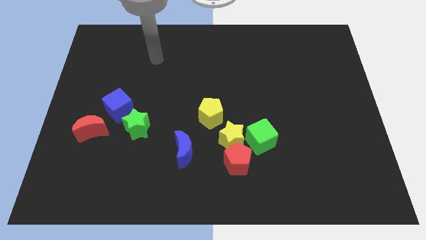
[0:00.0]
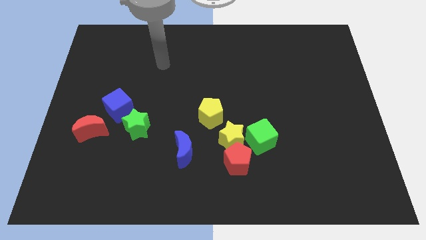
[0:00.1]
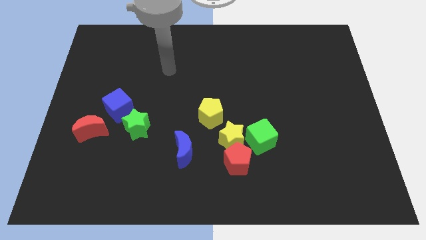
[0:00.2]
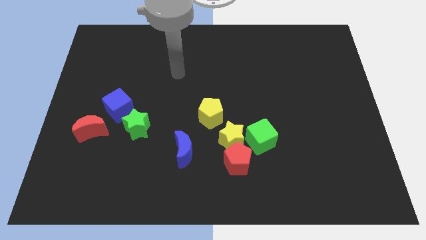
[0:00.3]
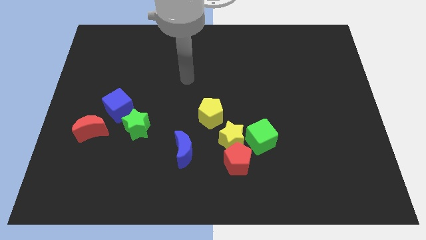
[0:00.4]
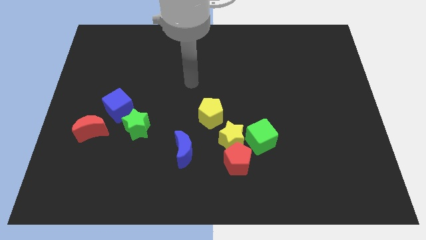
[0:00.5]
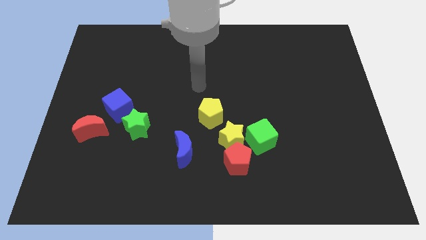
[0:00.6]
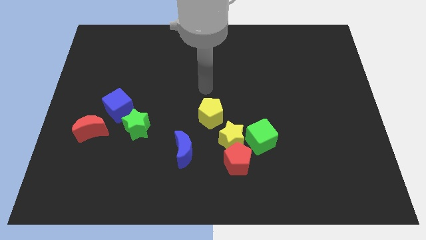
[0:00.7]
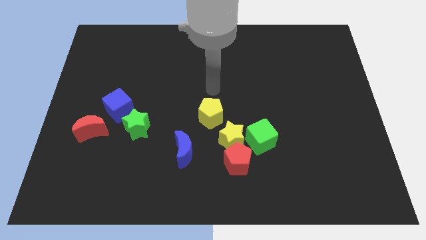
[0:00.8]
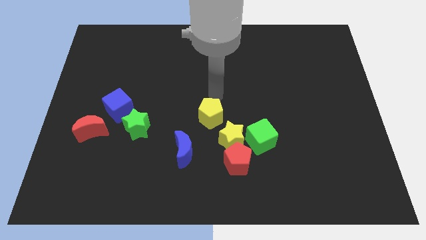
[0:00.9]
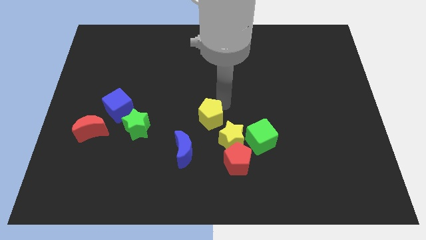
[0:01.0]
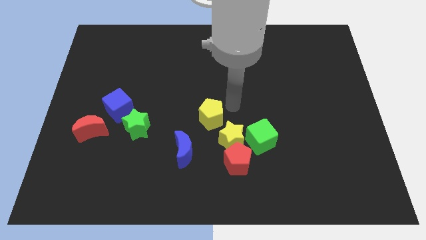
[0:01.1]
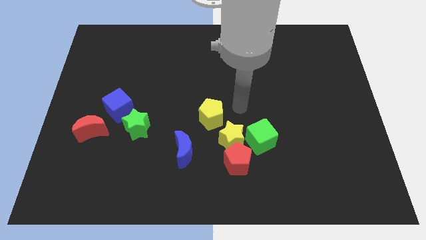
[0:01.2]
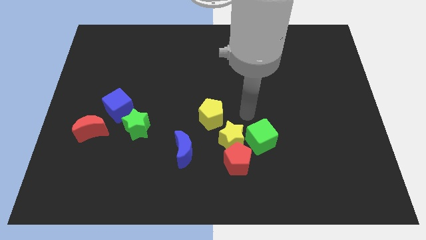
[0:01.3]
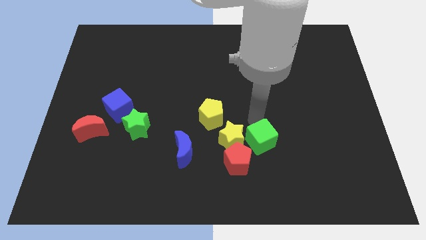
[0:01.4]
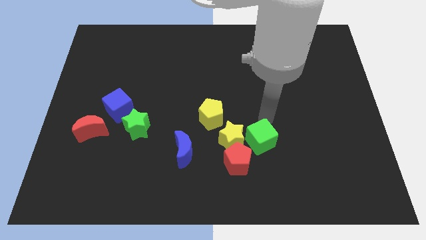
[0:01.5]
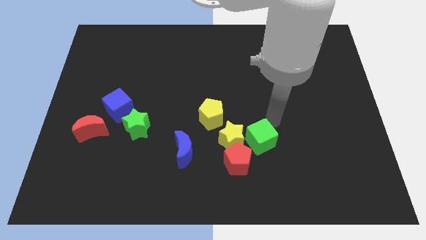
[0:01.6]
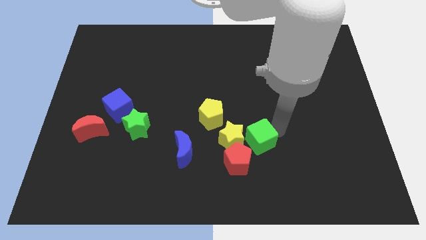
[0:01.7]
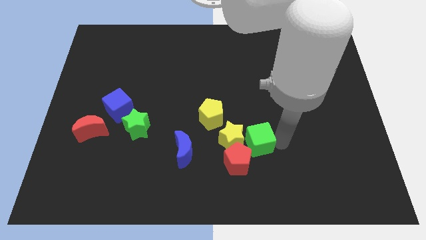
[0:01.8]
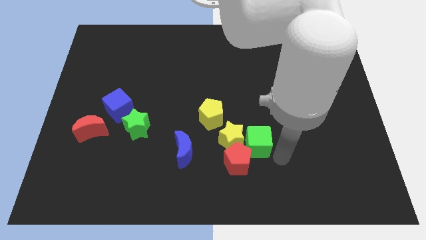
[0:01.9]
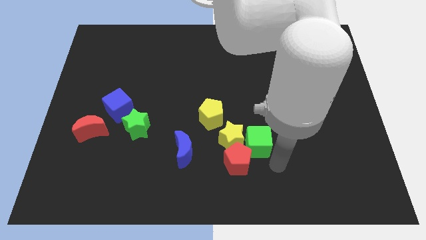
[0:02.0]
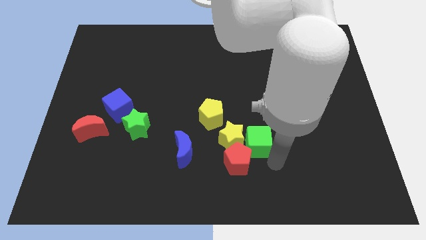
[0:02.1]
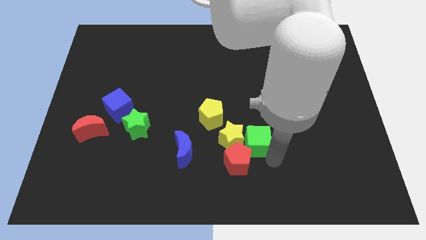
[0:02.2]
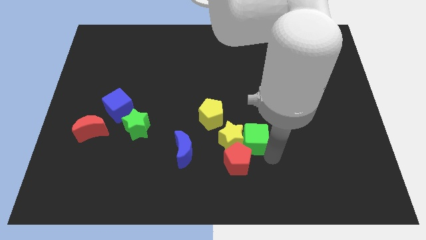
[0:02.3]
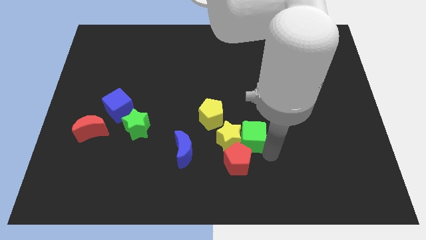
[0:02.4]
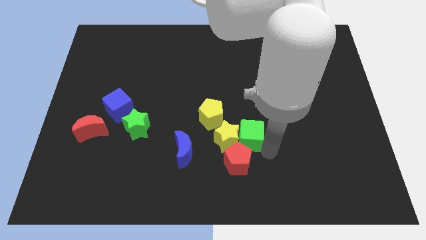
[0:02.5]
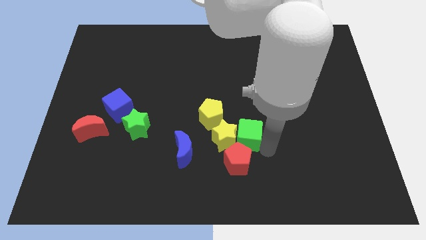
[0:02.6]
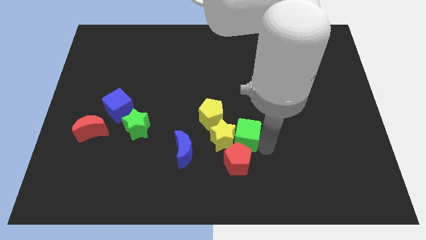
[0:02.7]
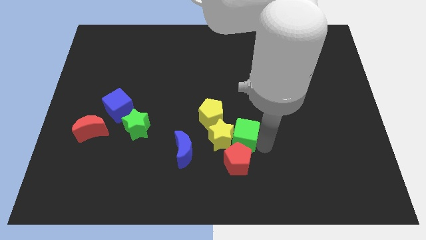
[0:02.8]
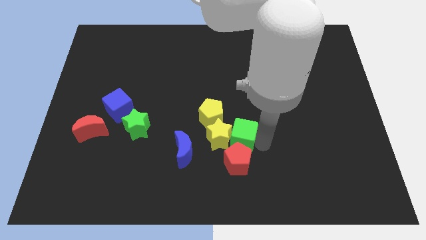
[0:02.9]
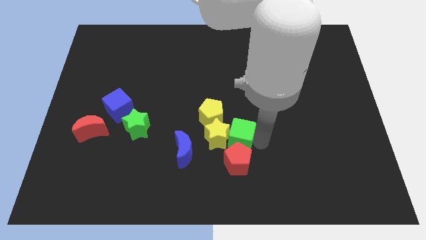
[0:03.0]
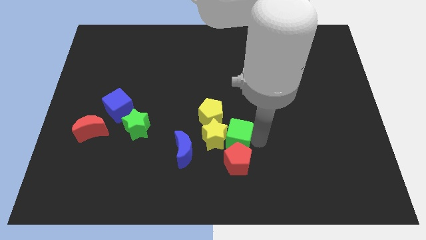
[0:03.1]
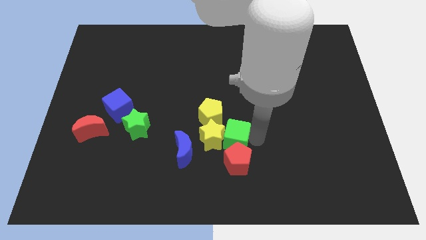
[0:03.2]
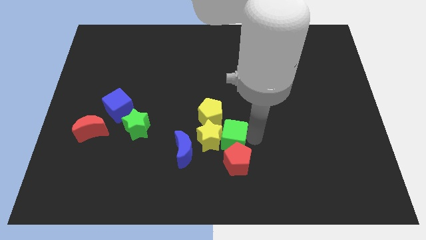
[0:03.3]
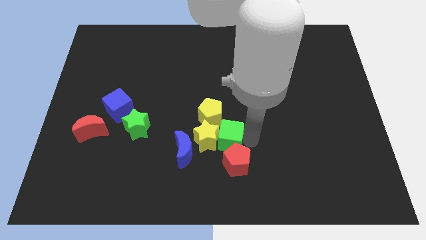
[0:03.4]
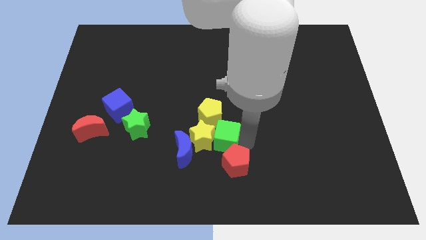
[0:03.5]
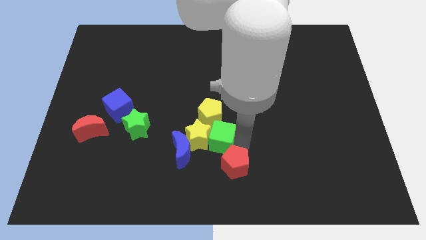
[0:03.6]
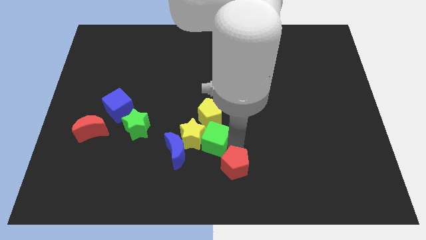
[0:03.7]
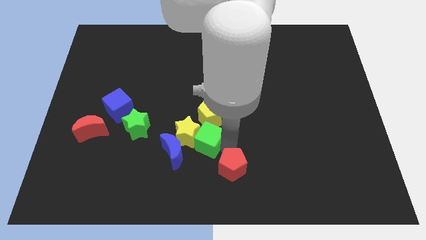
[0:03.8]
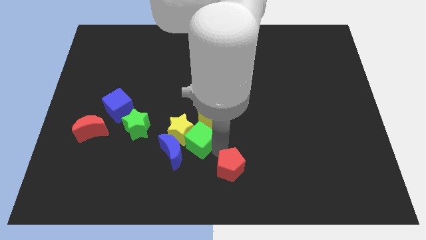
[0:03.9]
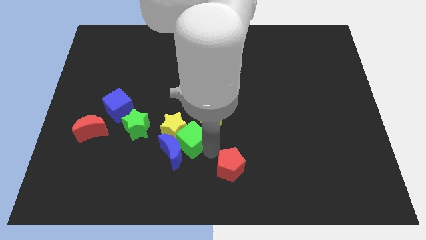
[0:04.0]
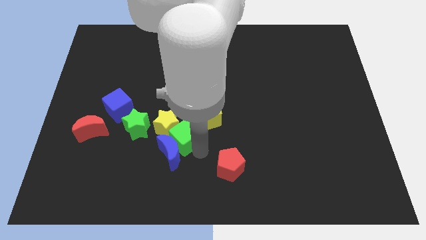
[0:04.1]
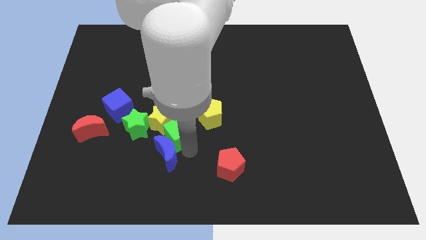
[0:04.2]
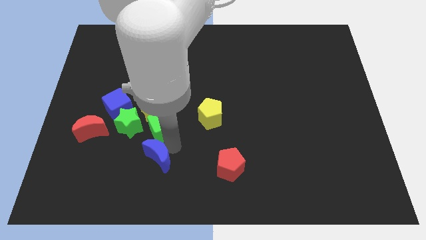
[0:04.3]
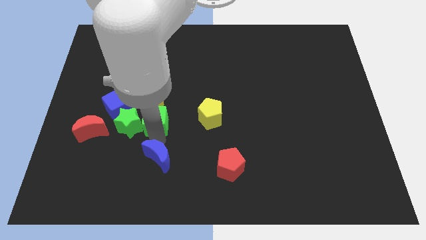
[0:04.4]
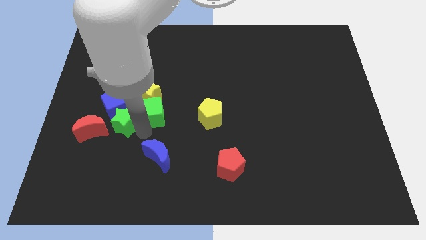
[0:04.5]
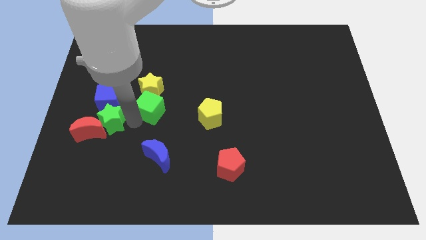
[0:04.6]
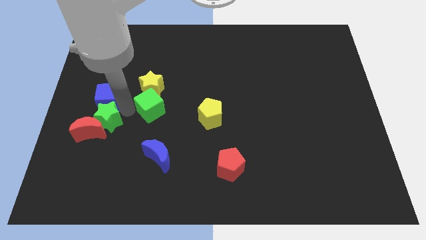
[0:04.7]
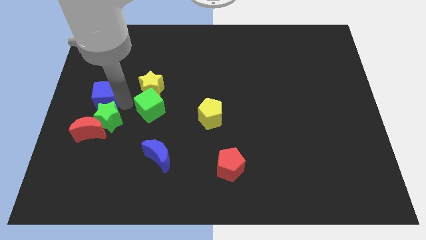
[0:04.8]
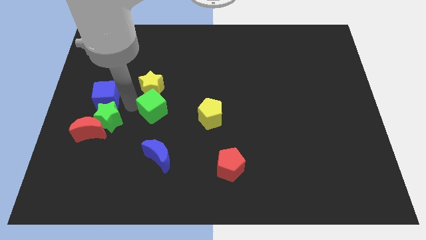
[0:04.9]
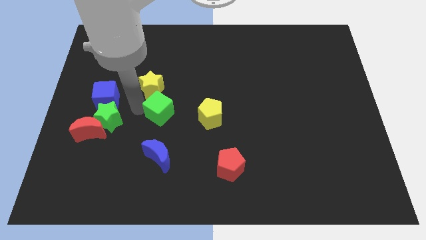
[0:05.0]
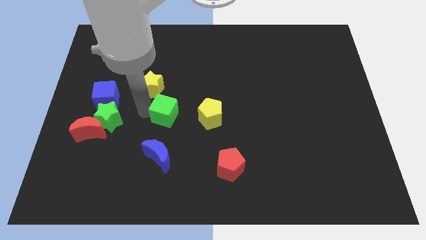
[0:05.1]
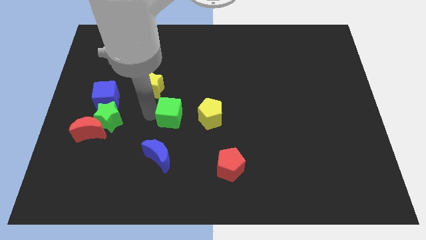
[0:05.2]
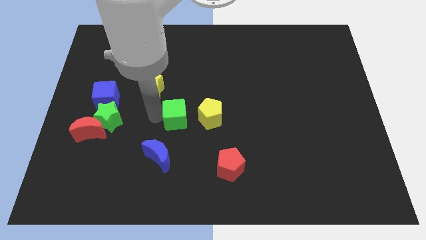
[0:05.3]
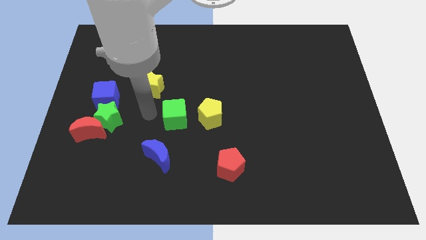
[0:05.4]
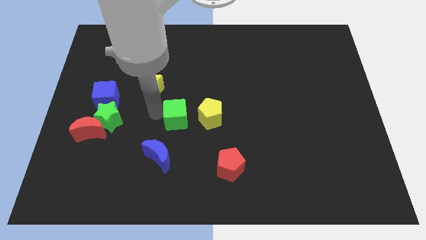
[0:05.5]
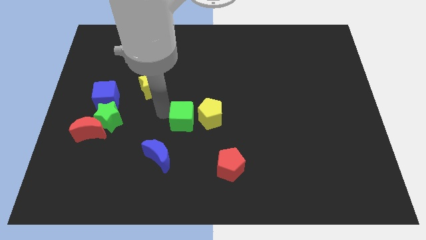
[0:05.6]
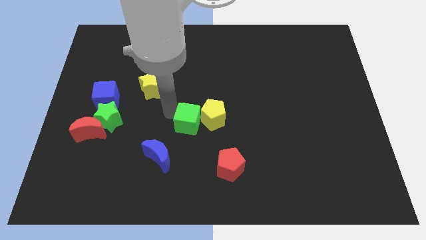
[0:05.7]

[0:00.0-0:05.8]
put the green cube close to the yellow pentagon

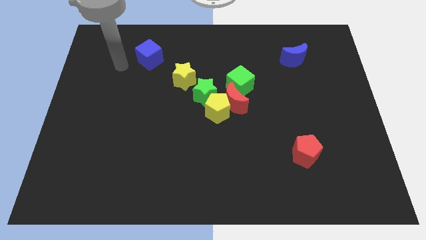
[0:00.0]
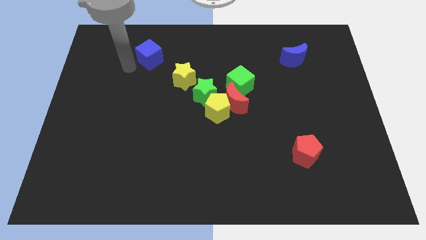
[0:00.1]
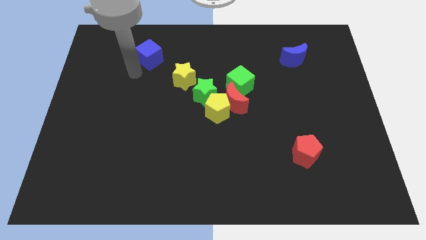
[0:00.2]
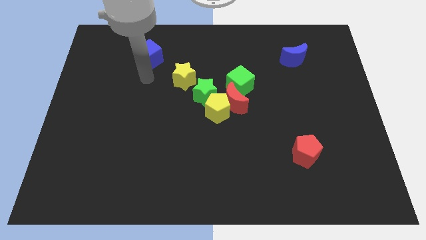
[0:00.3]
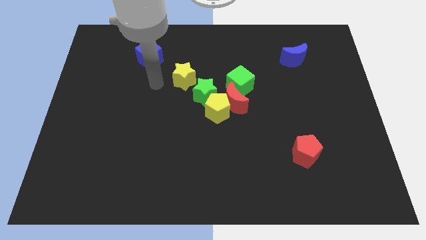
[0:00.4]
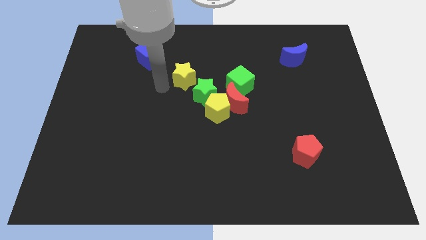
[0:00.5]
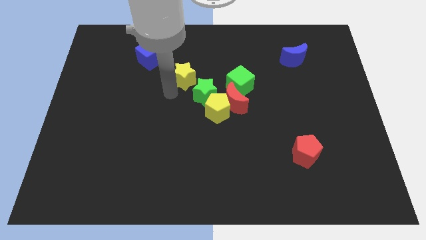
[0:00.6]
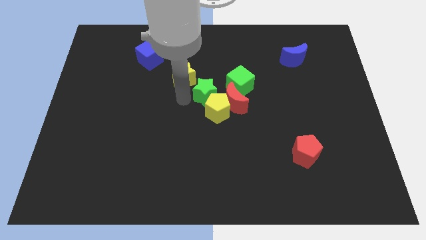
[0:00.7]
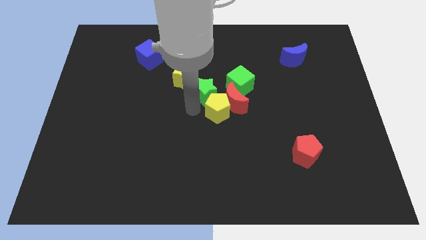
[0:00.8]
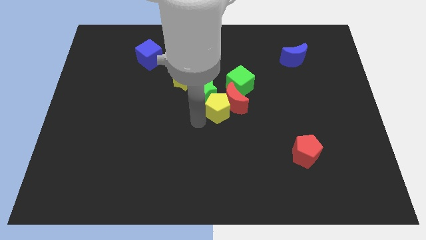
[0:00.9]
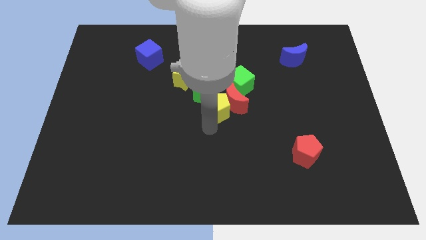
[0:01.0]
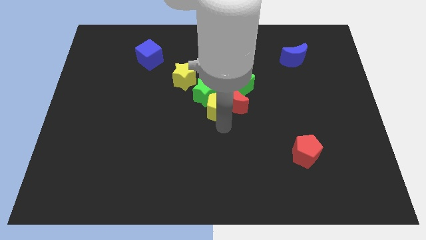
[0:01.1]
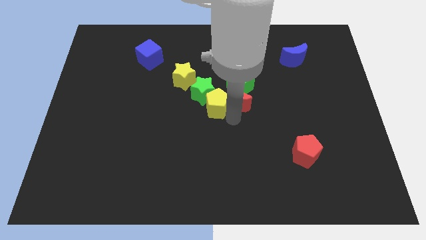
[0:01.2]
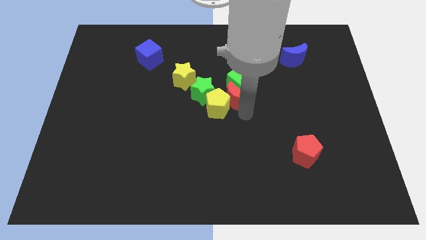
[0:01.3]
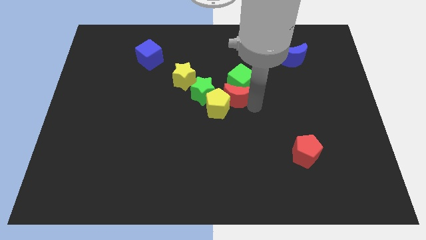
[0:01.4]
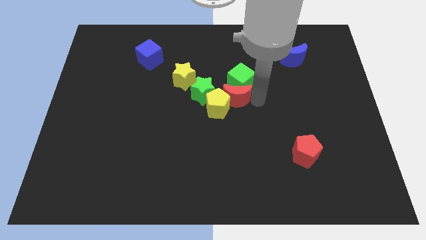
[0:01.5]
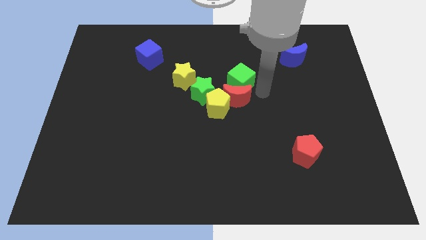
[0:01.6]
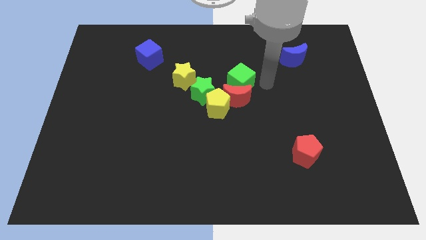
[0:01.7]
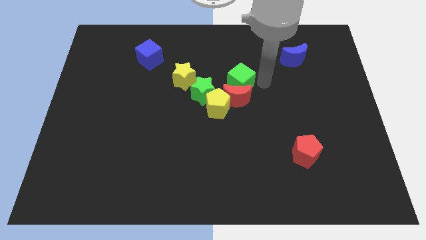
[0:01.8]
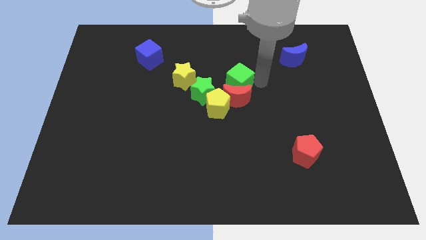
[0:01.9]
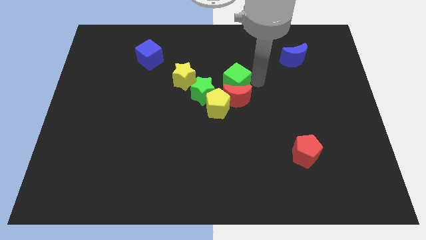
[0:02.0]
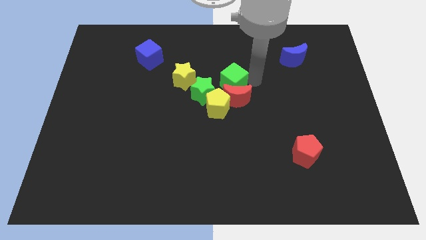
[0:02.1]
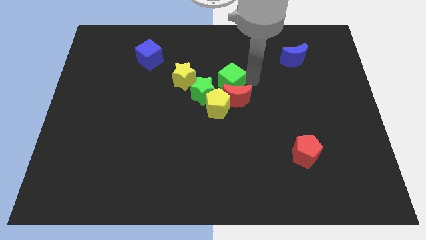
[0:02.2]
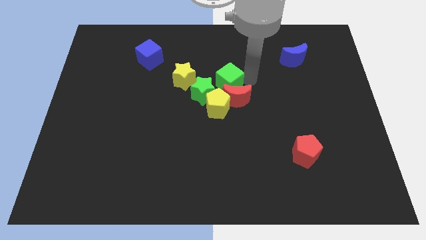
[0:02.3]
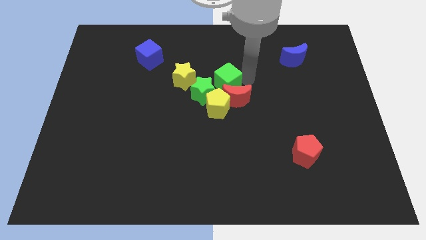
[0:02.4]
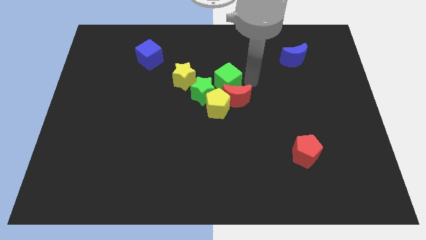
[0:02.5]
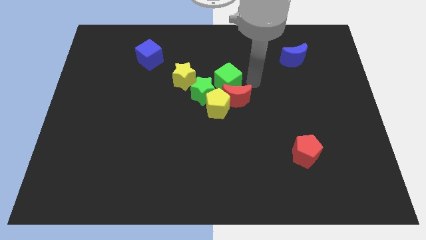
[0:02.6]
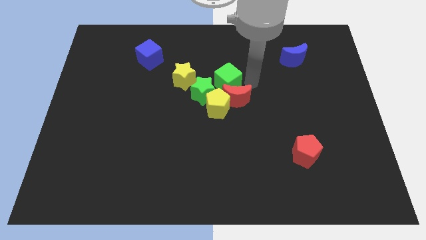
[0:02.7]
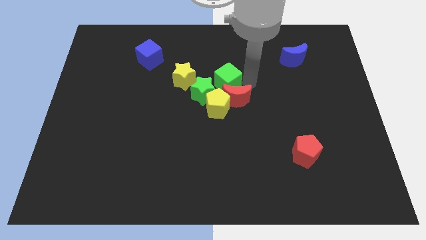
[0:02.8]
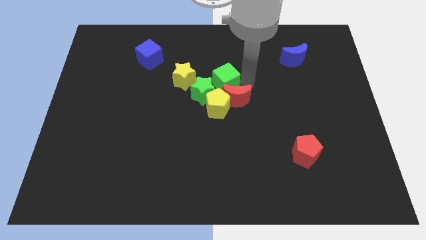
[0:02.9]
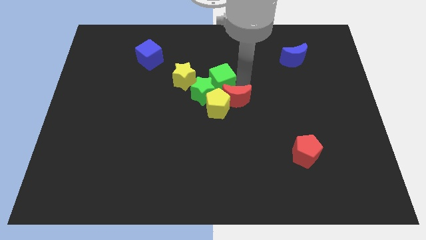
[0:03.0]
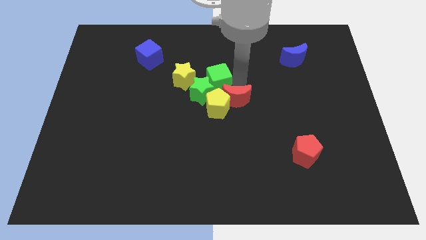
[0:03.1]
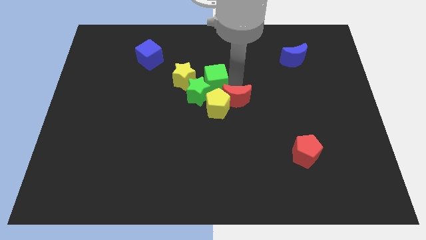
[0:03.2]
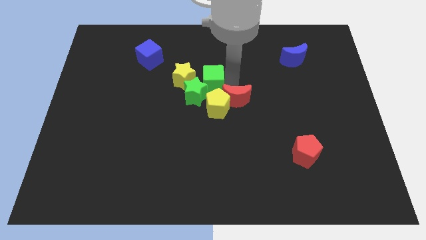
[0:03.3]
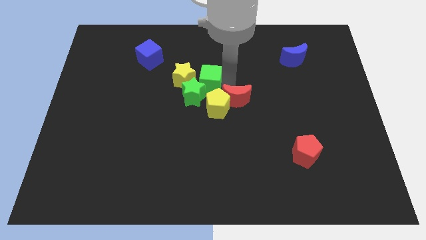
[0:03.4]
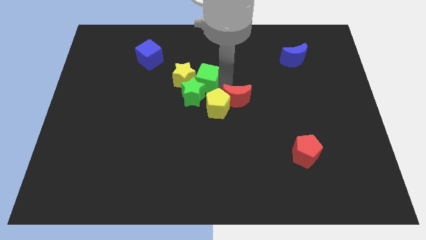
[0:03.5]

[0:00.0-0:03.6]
put the green cube next to the yellow star
